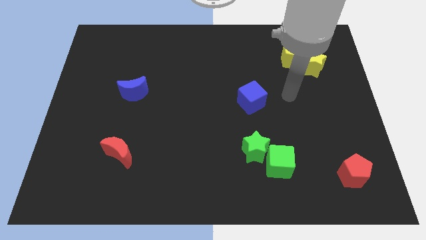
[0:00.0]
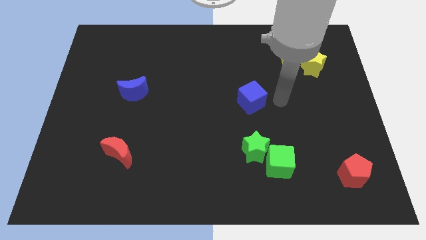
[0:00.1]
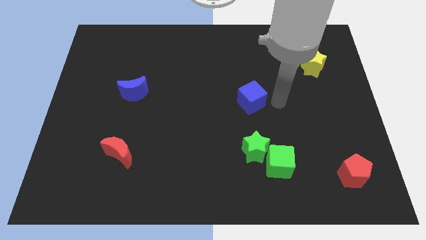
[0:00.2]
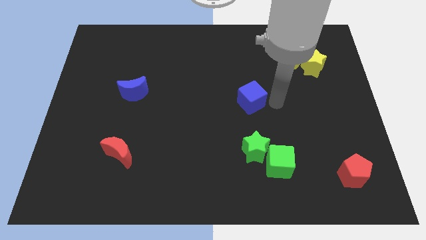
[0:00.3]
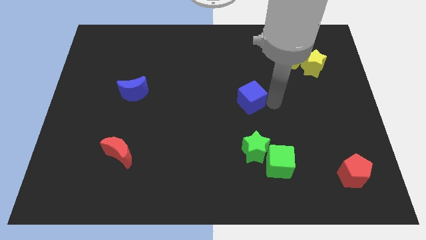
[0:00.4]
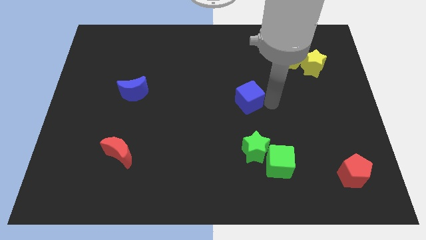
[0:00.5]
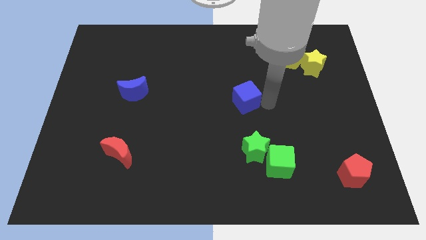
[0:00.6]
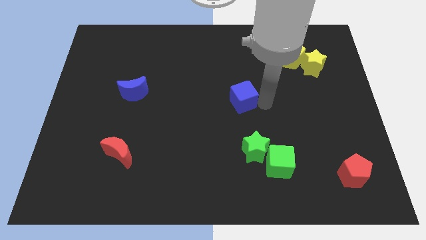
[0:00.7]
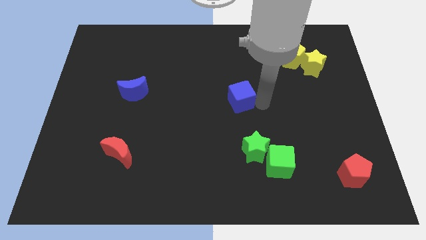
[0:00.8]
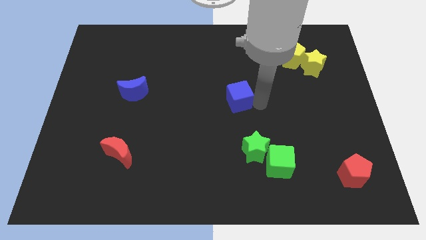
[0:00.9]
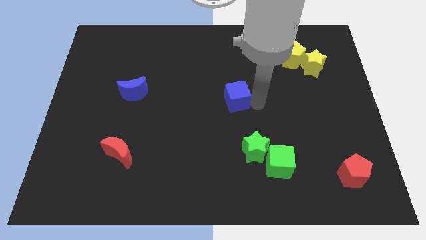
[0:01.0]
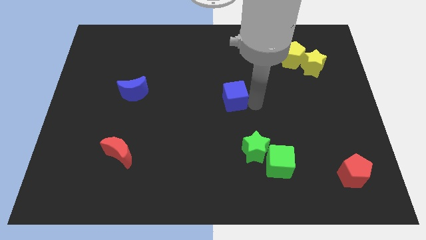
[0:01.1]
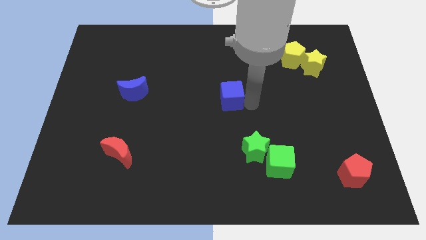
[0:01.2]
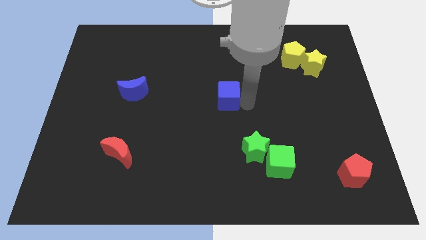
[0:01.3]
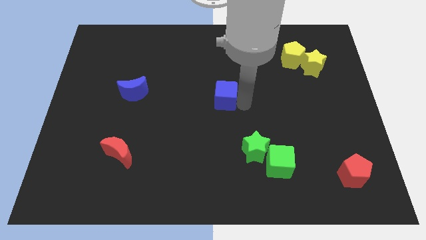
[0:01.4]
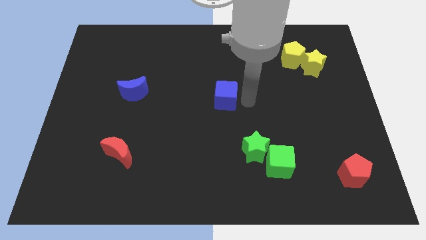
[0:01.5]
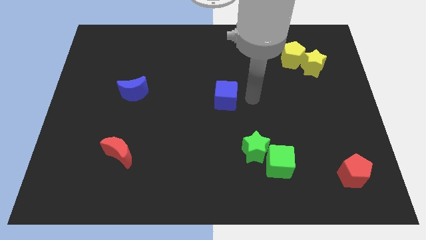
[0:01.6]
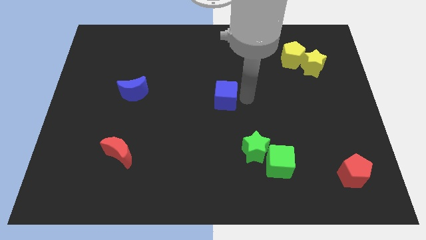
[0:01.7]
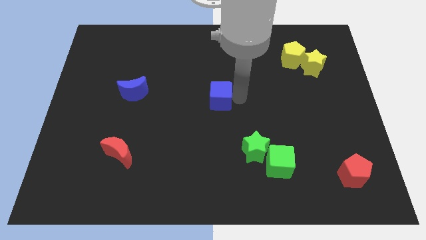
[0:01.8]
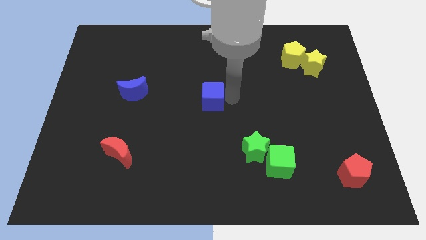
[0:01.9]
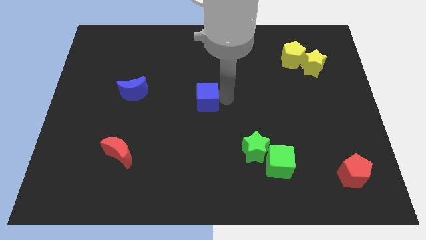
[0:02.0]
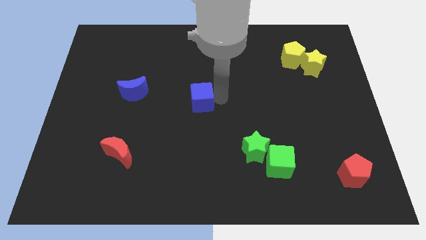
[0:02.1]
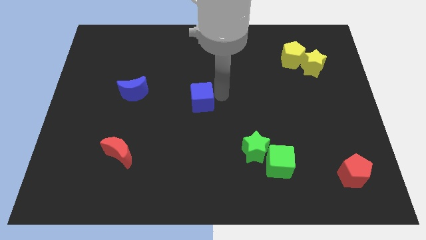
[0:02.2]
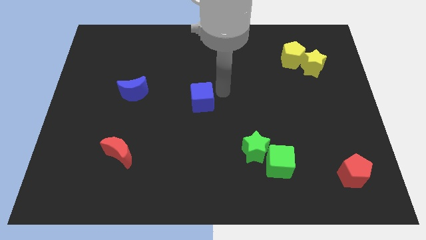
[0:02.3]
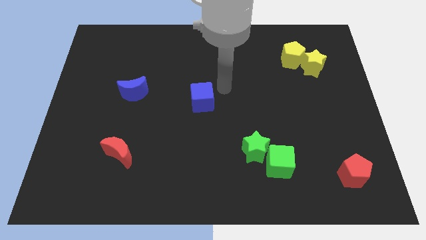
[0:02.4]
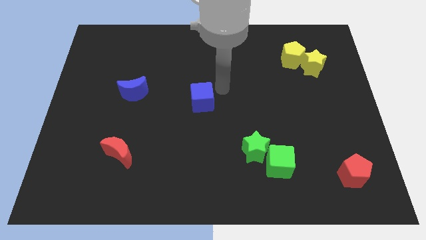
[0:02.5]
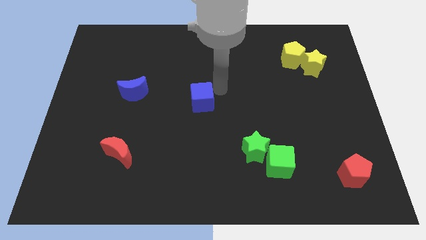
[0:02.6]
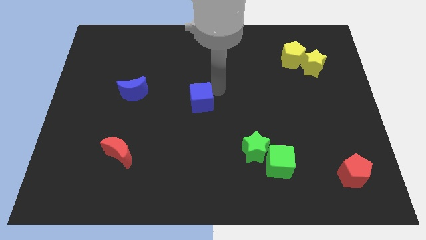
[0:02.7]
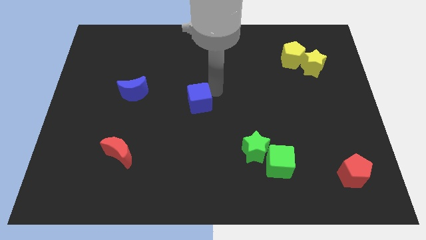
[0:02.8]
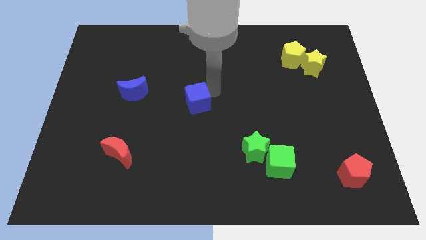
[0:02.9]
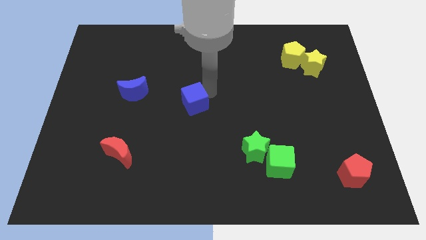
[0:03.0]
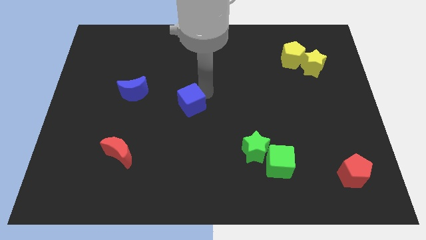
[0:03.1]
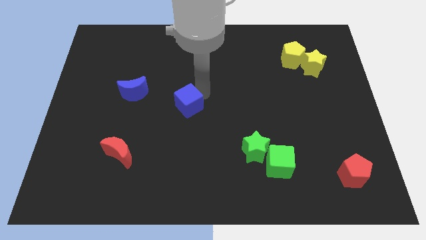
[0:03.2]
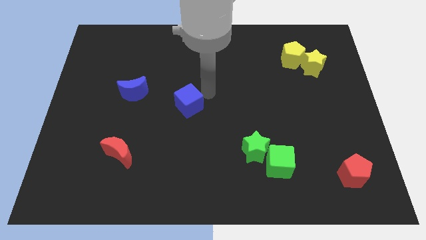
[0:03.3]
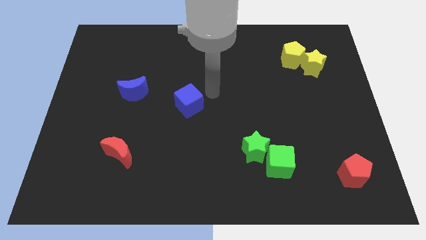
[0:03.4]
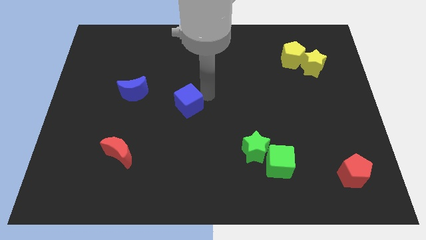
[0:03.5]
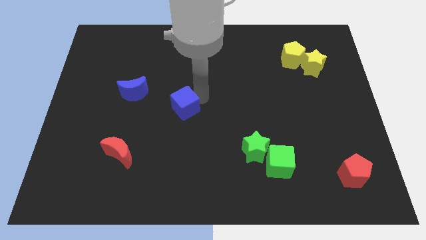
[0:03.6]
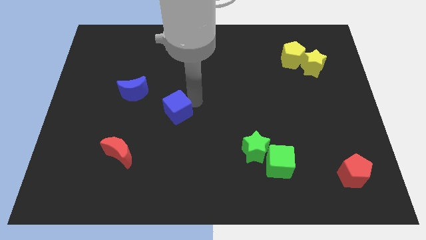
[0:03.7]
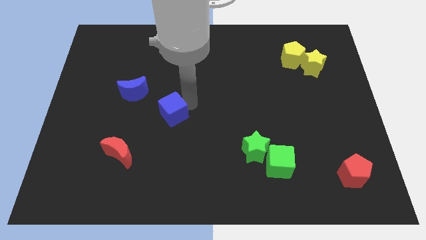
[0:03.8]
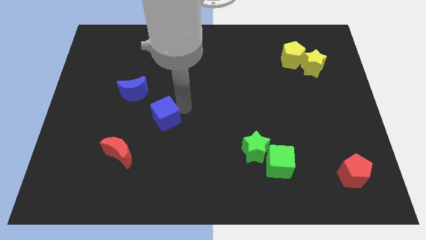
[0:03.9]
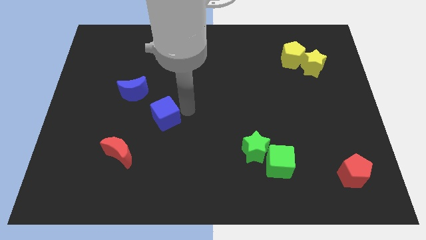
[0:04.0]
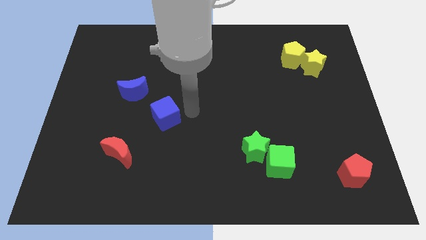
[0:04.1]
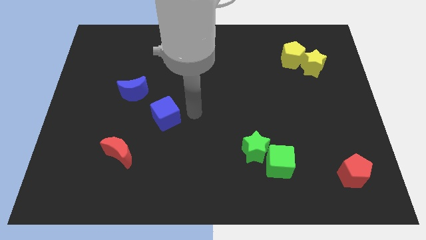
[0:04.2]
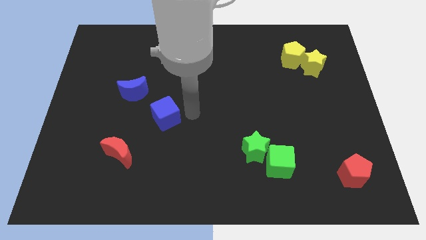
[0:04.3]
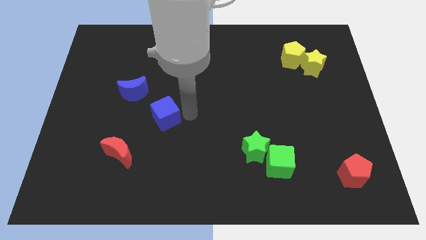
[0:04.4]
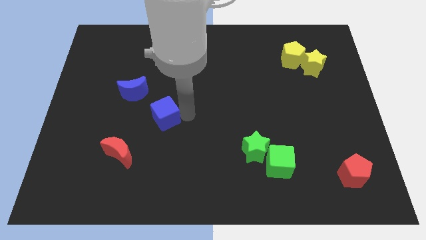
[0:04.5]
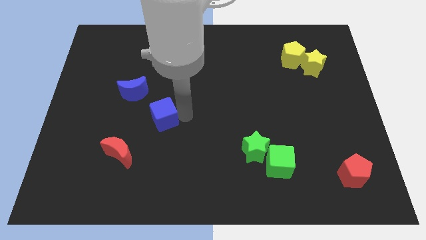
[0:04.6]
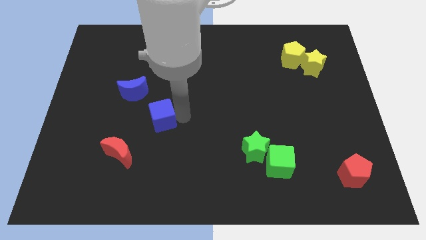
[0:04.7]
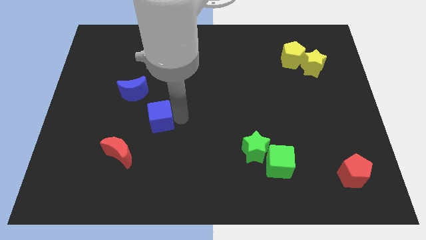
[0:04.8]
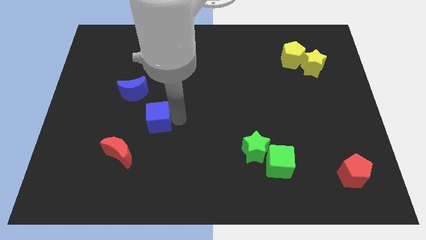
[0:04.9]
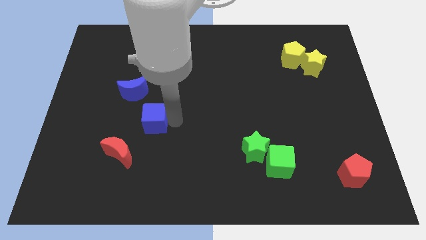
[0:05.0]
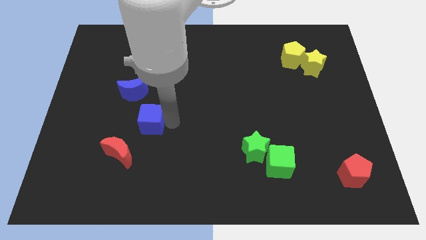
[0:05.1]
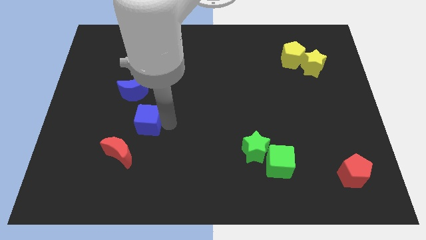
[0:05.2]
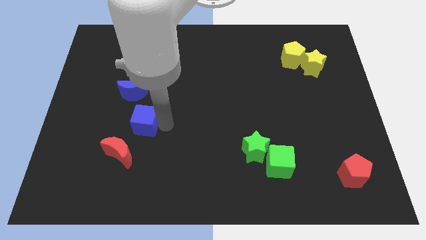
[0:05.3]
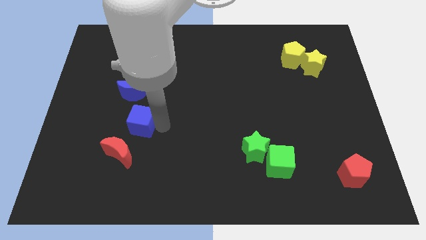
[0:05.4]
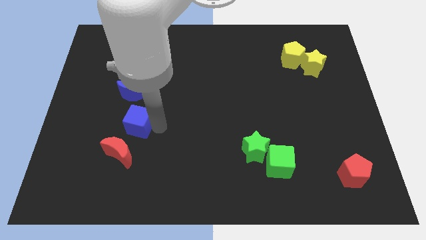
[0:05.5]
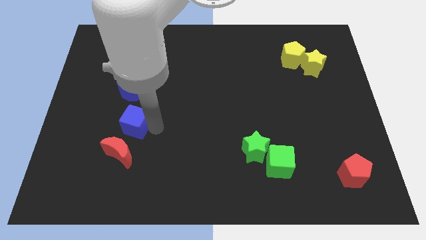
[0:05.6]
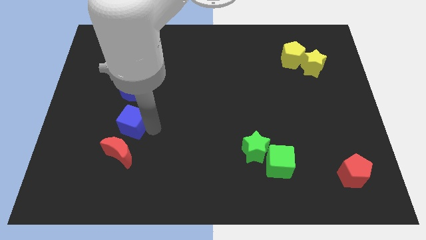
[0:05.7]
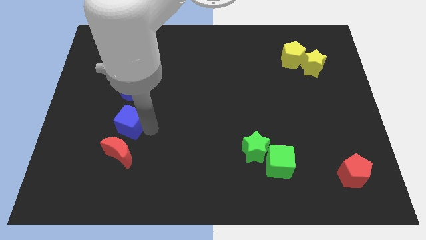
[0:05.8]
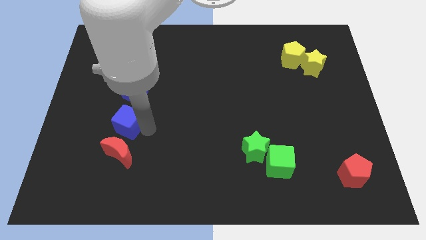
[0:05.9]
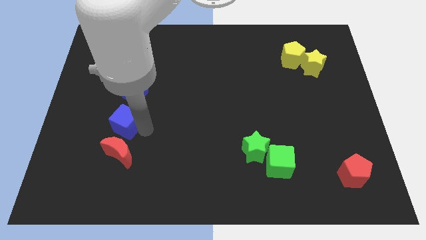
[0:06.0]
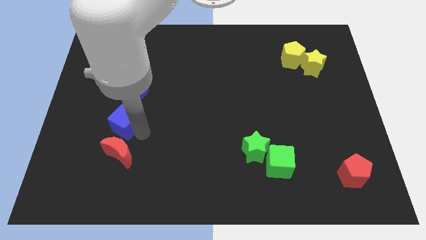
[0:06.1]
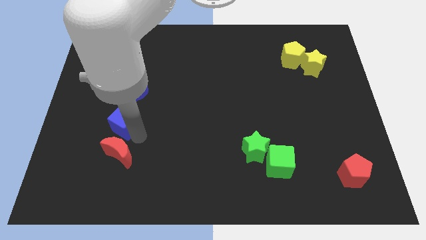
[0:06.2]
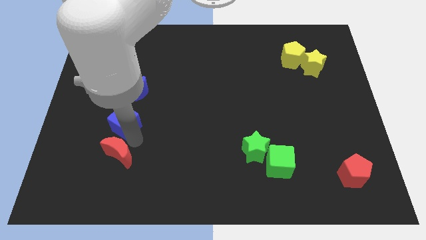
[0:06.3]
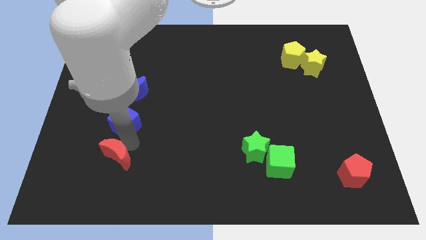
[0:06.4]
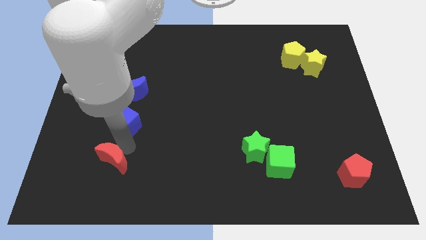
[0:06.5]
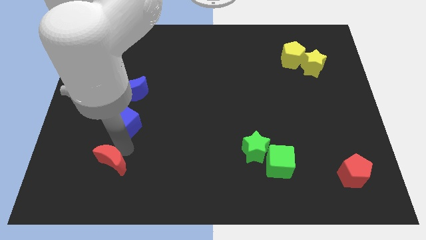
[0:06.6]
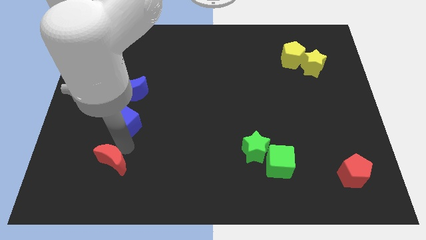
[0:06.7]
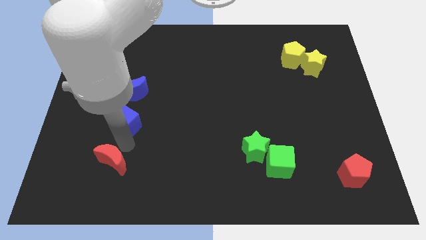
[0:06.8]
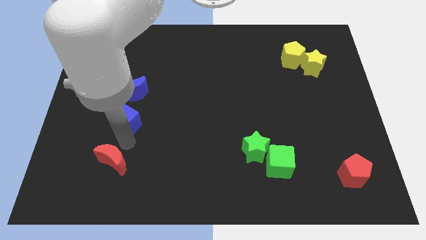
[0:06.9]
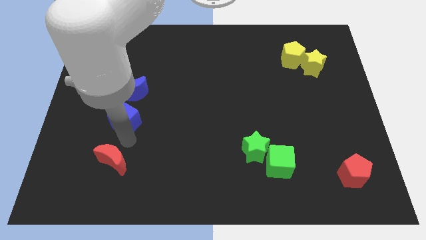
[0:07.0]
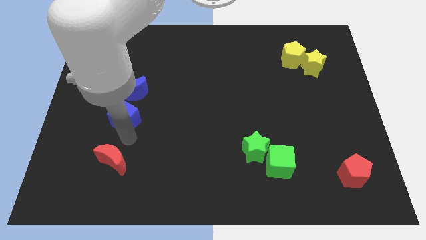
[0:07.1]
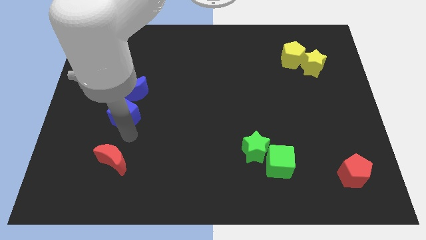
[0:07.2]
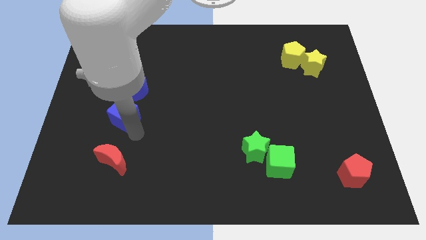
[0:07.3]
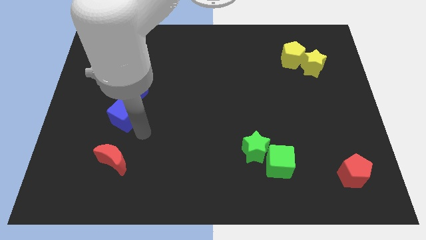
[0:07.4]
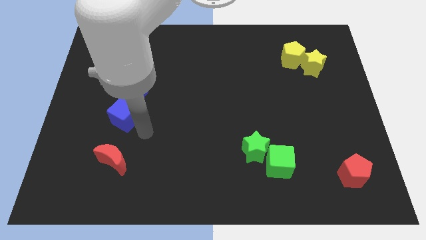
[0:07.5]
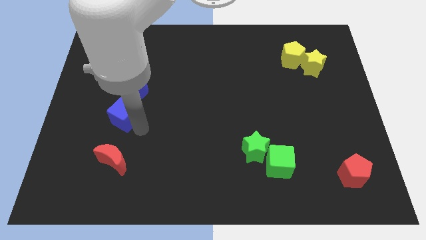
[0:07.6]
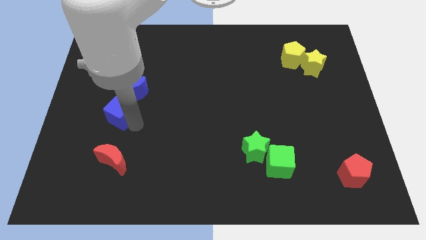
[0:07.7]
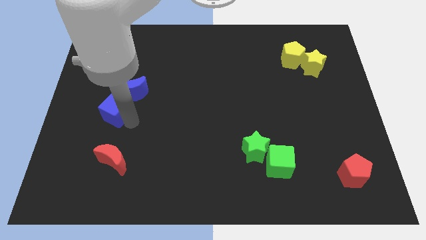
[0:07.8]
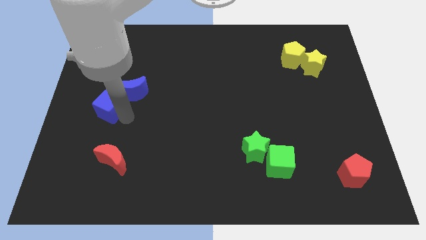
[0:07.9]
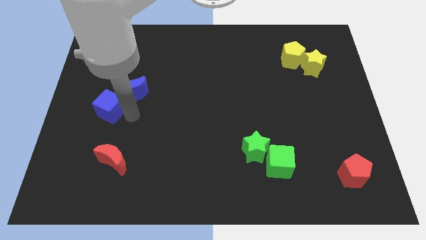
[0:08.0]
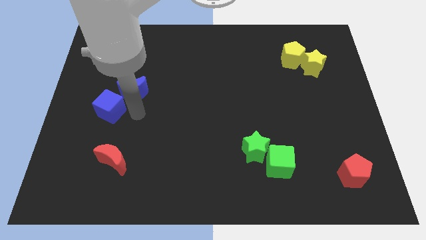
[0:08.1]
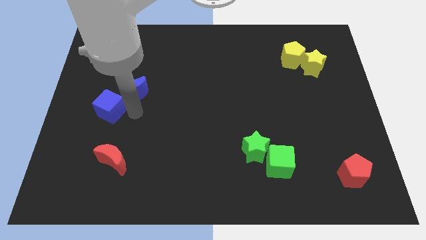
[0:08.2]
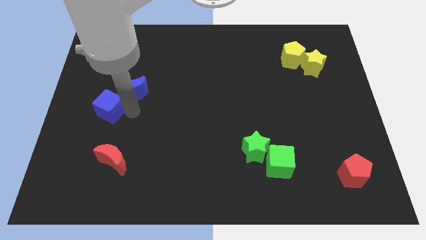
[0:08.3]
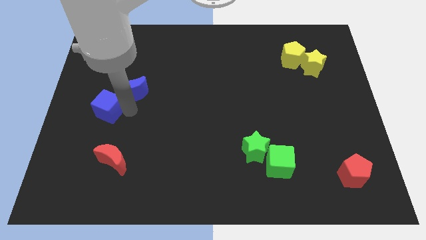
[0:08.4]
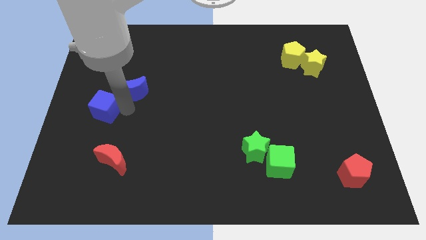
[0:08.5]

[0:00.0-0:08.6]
move the blue cube to the center left
